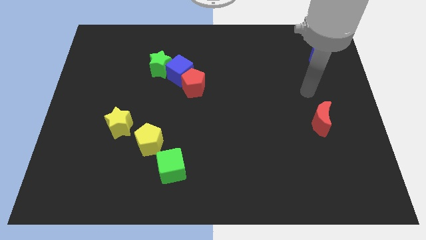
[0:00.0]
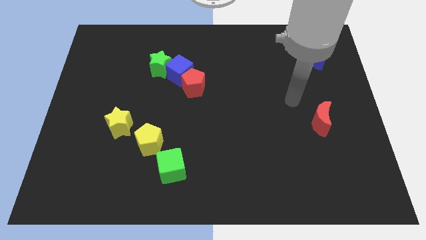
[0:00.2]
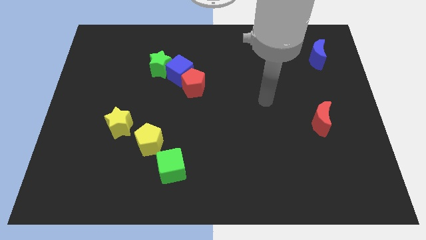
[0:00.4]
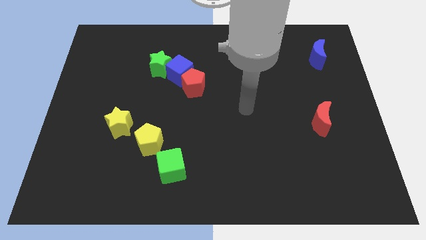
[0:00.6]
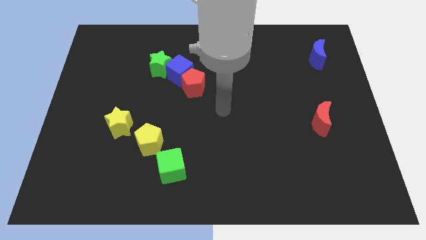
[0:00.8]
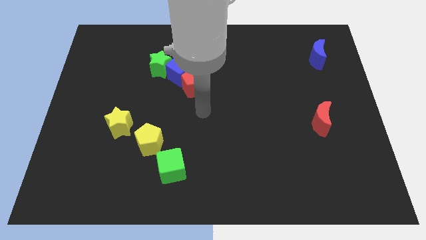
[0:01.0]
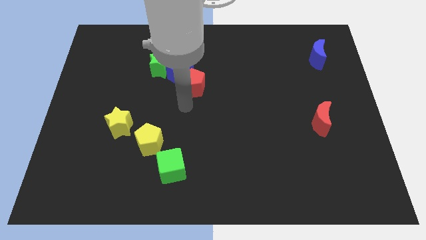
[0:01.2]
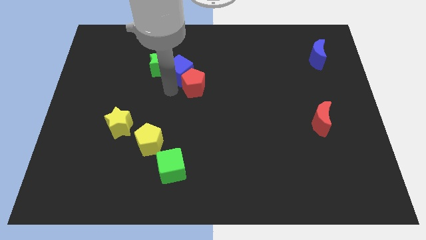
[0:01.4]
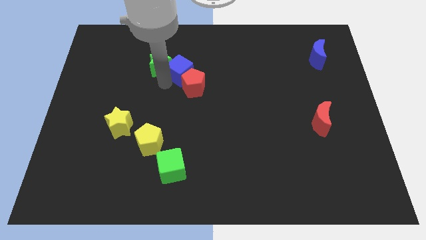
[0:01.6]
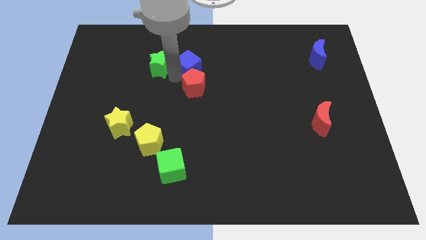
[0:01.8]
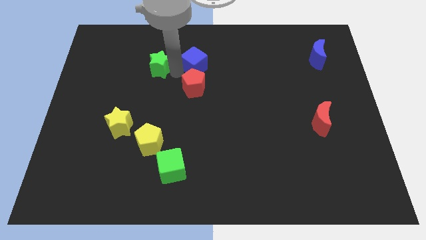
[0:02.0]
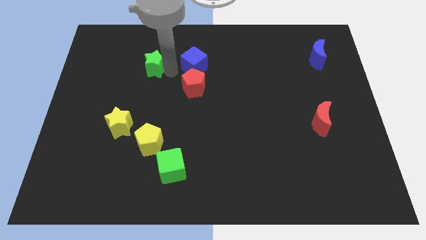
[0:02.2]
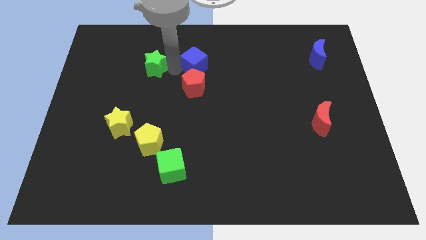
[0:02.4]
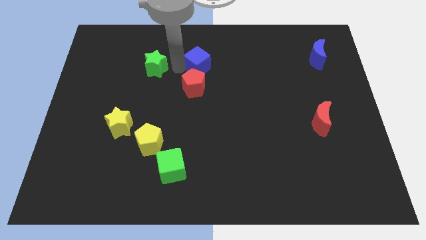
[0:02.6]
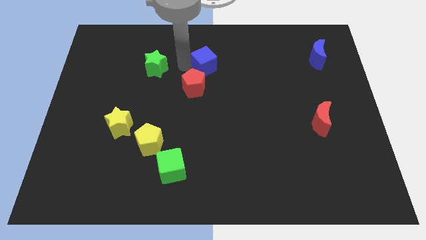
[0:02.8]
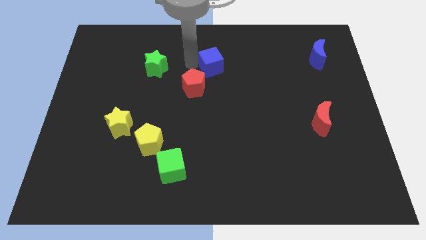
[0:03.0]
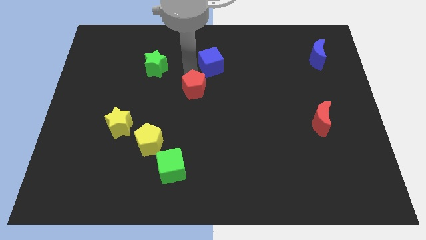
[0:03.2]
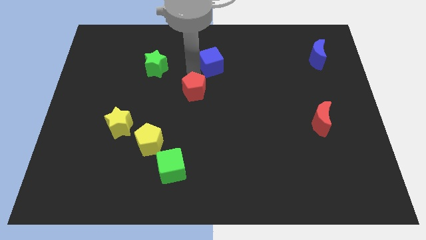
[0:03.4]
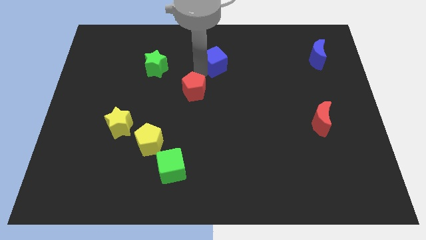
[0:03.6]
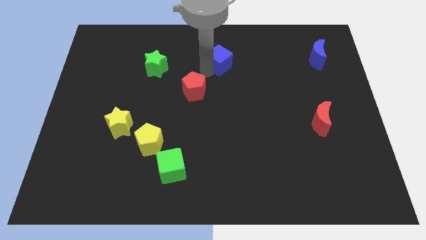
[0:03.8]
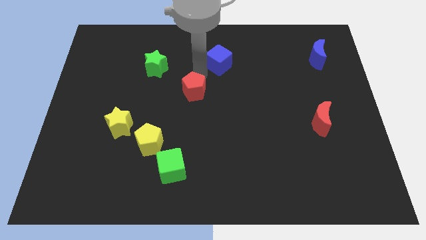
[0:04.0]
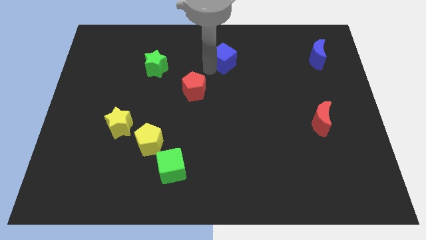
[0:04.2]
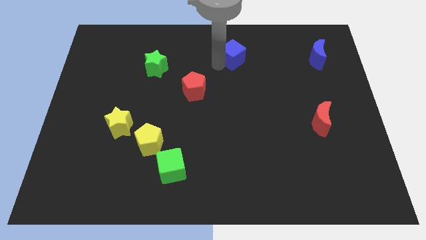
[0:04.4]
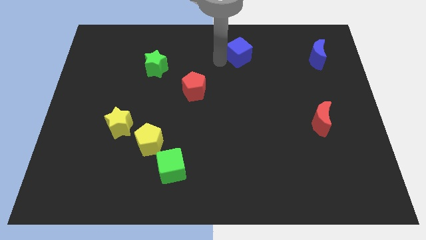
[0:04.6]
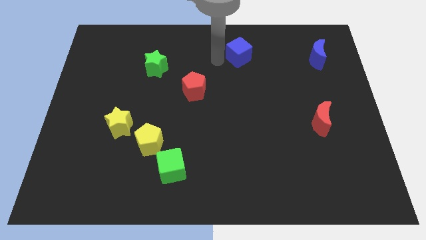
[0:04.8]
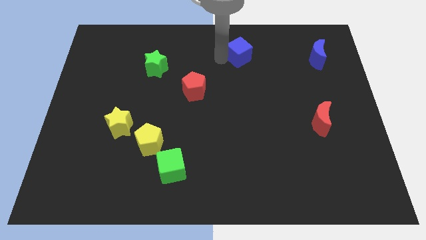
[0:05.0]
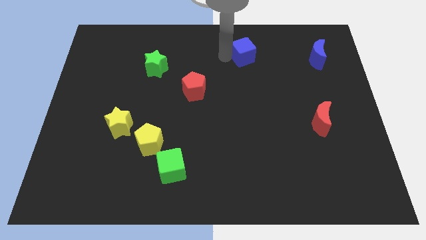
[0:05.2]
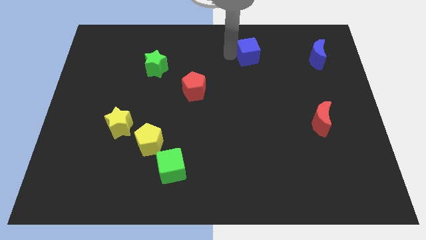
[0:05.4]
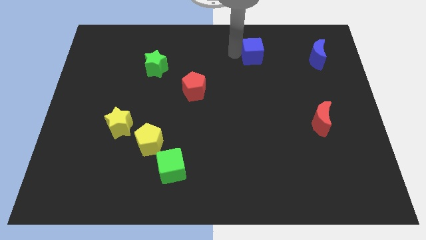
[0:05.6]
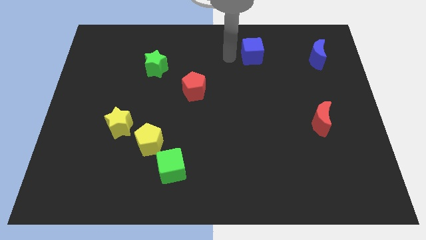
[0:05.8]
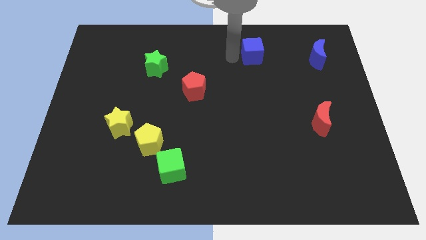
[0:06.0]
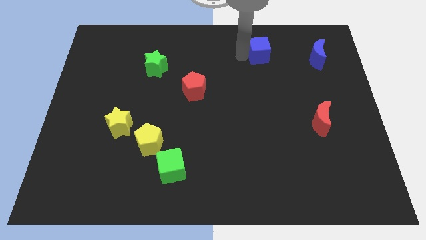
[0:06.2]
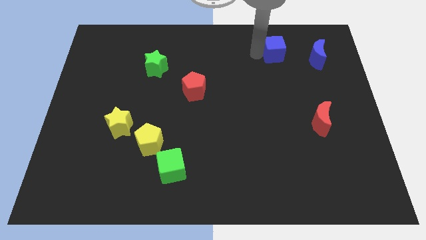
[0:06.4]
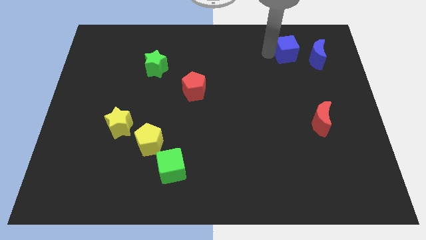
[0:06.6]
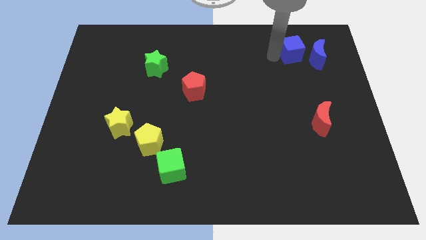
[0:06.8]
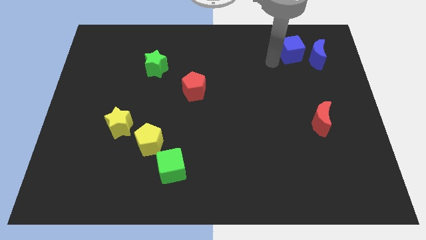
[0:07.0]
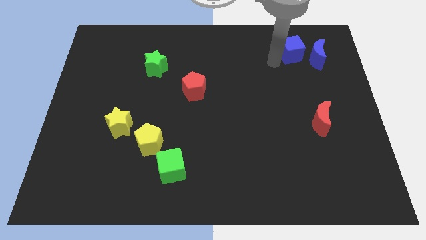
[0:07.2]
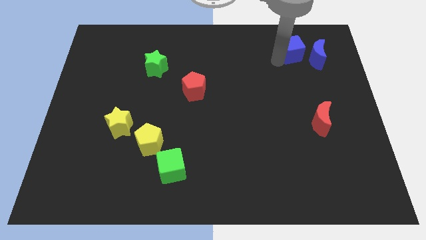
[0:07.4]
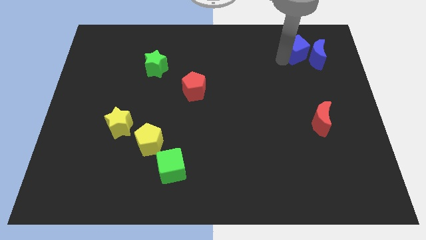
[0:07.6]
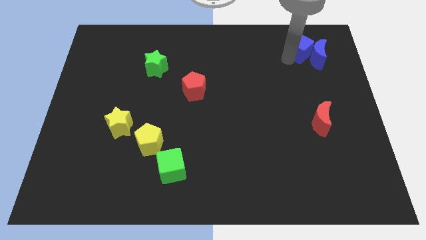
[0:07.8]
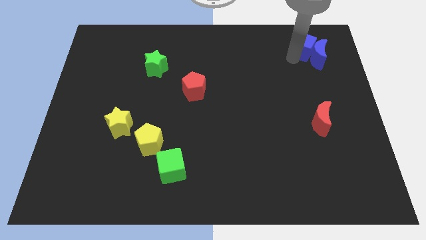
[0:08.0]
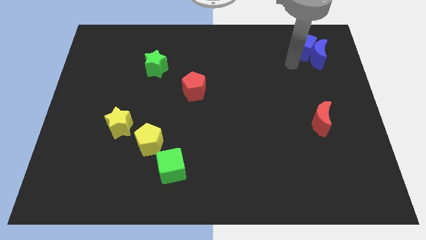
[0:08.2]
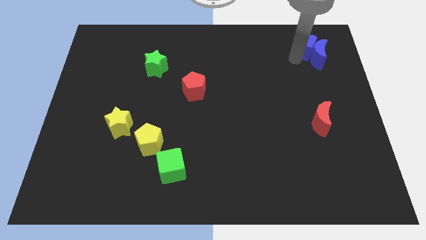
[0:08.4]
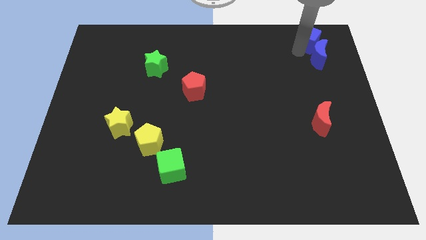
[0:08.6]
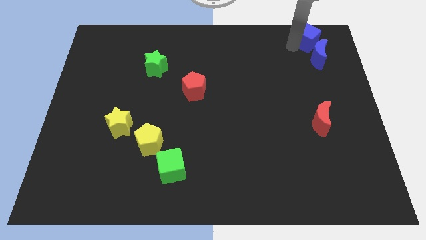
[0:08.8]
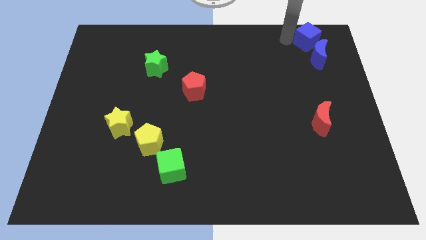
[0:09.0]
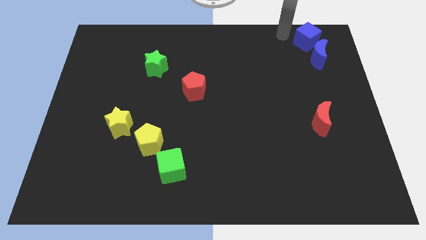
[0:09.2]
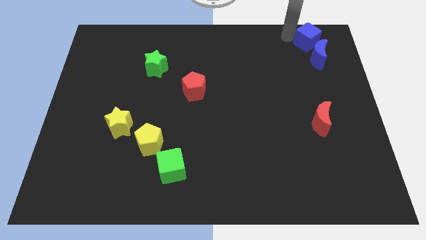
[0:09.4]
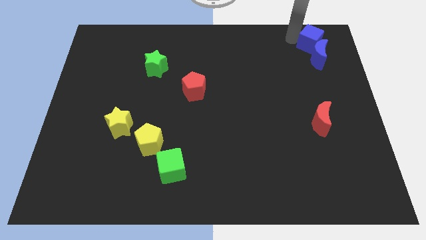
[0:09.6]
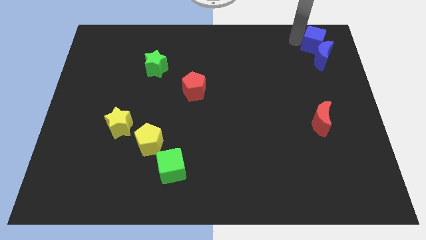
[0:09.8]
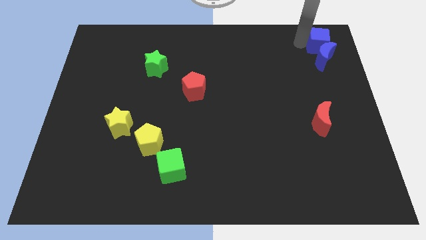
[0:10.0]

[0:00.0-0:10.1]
move the blue cube to the top right corner

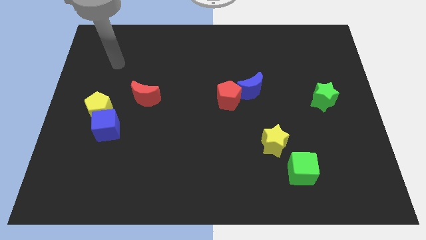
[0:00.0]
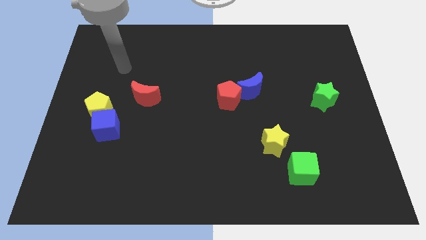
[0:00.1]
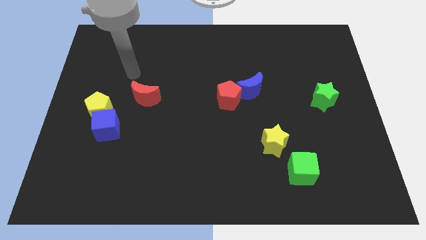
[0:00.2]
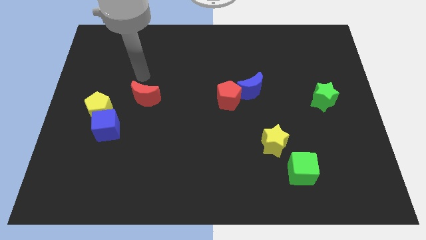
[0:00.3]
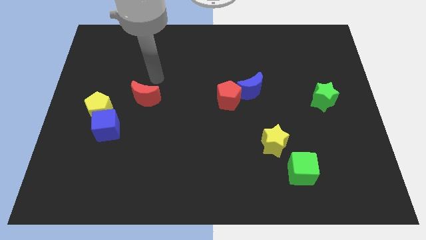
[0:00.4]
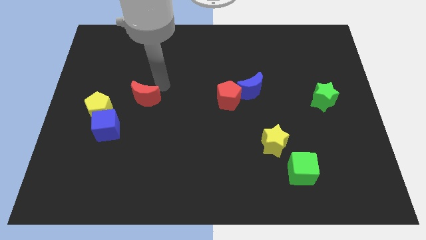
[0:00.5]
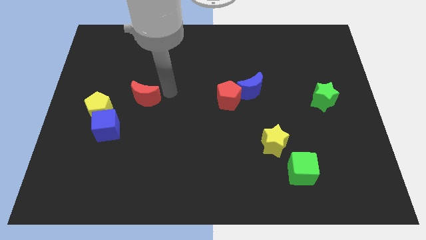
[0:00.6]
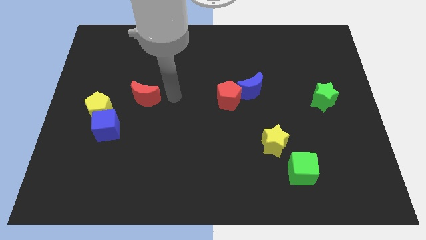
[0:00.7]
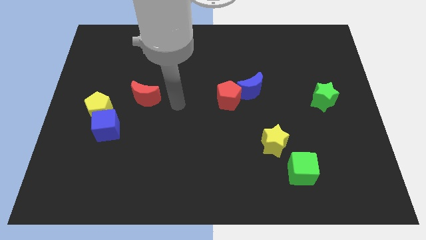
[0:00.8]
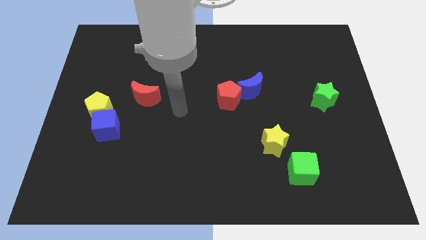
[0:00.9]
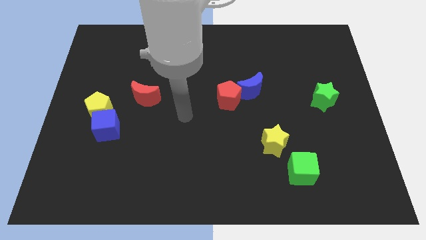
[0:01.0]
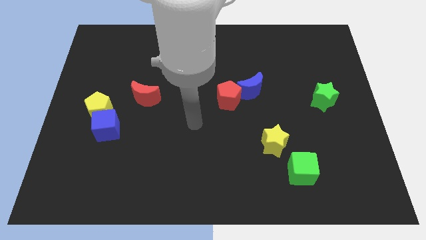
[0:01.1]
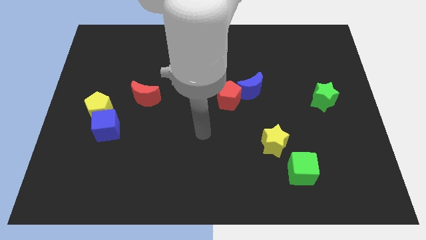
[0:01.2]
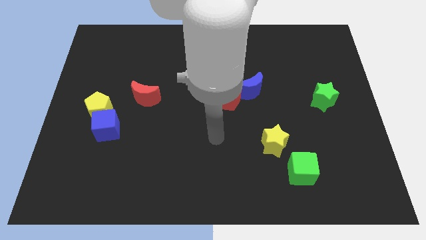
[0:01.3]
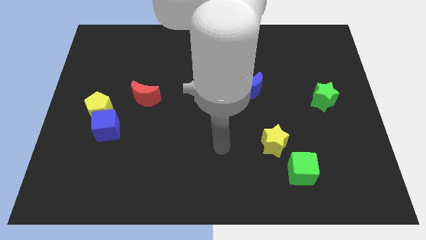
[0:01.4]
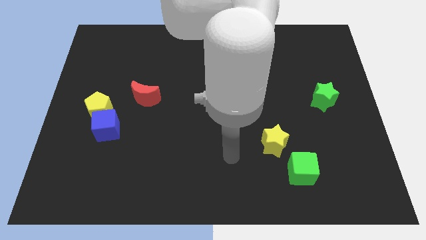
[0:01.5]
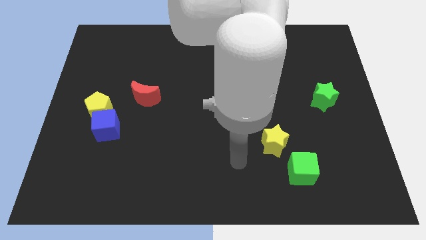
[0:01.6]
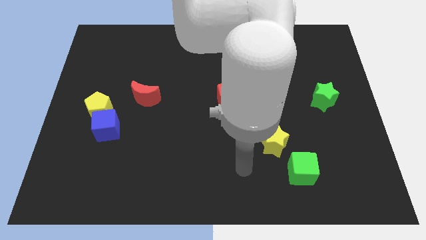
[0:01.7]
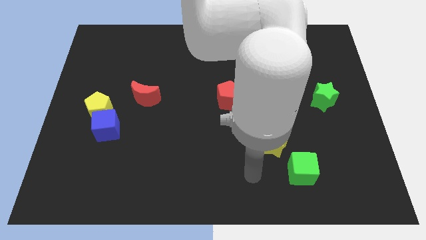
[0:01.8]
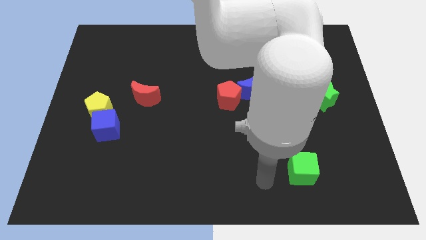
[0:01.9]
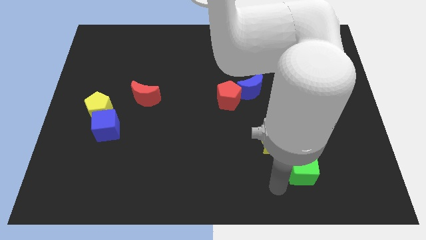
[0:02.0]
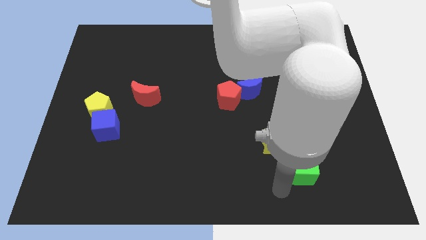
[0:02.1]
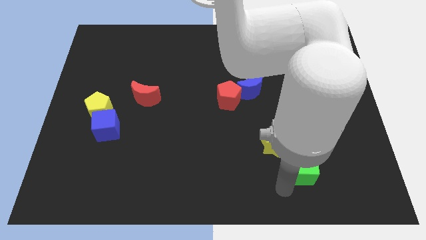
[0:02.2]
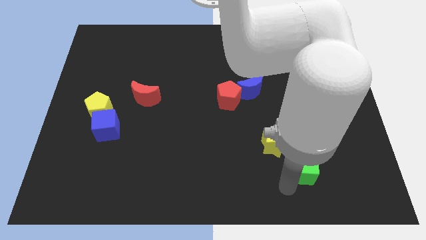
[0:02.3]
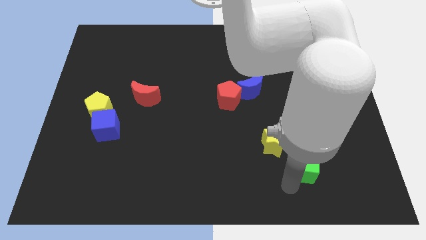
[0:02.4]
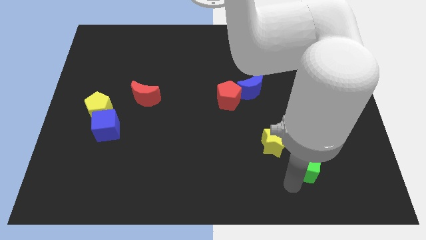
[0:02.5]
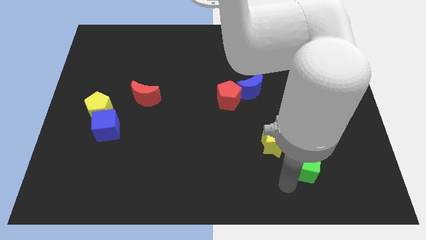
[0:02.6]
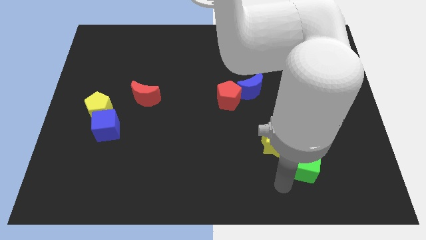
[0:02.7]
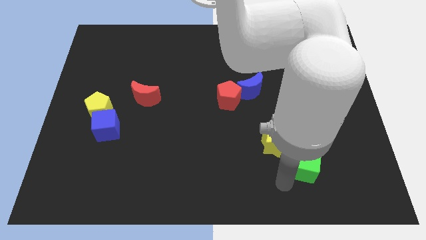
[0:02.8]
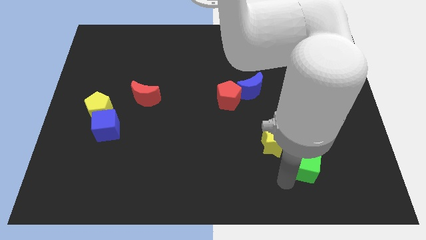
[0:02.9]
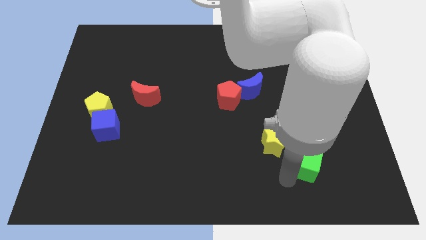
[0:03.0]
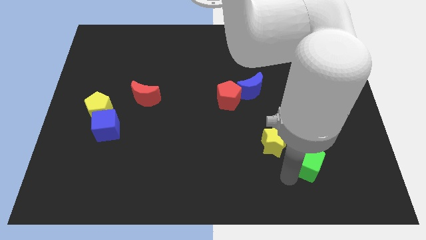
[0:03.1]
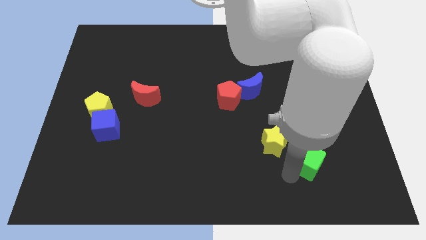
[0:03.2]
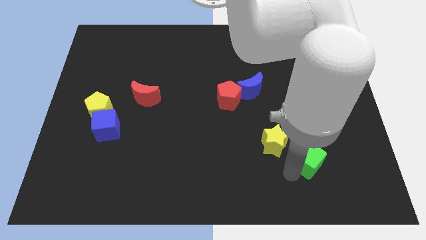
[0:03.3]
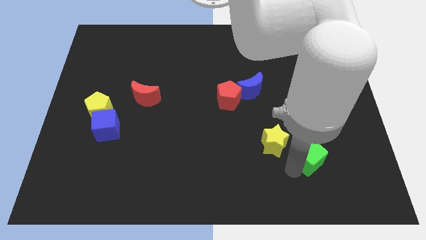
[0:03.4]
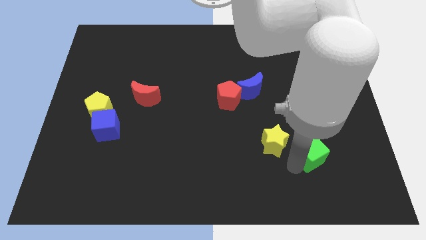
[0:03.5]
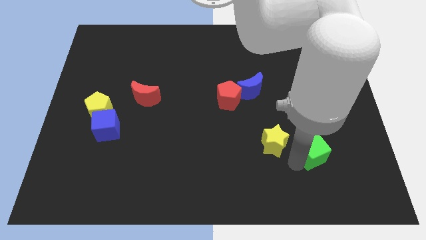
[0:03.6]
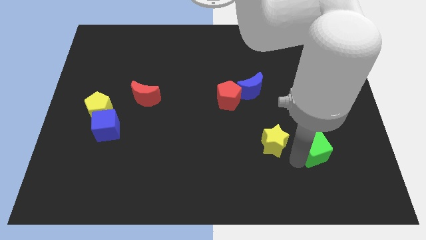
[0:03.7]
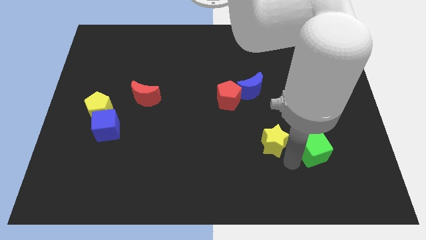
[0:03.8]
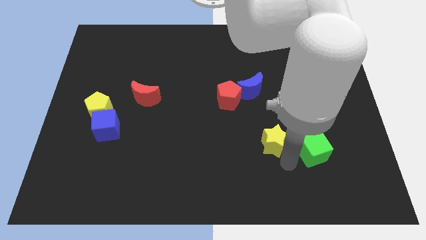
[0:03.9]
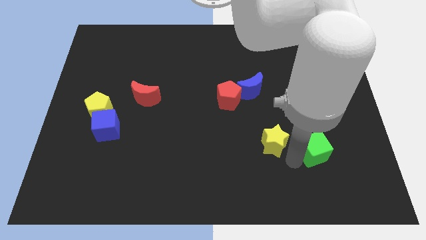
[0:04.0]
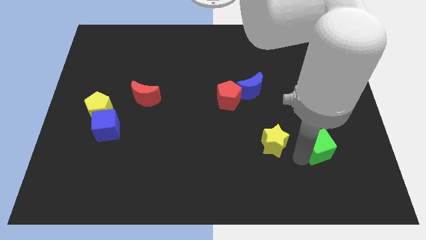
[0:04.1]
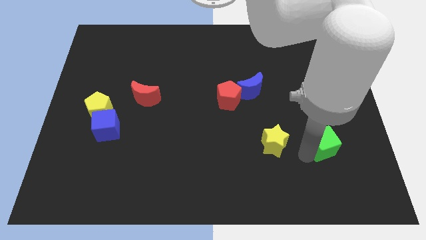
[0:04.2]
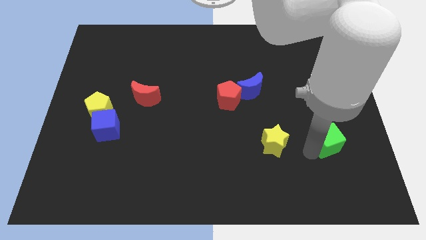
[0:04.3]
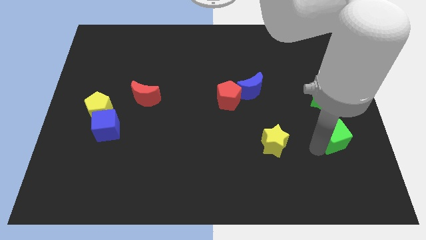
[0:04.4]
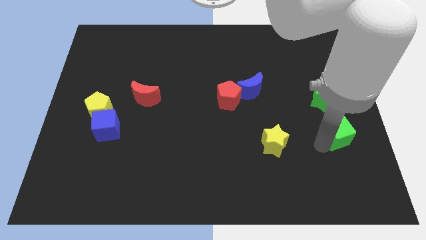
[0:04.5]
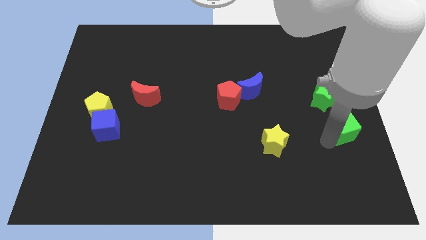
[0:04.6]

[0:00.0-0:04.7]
slide the green cube to the right side of the board
